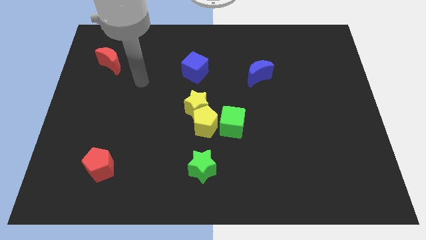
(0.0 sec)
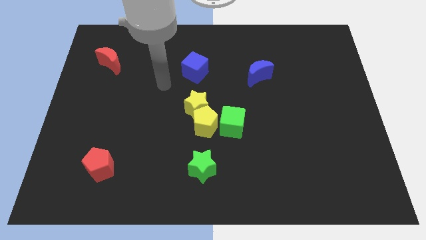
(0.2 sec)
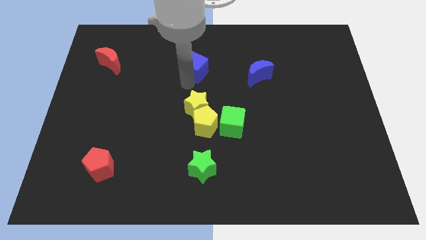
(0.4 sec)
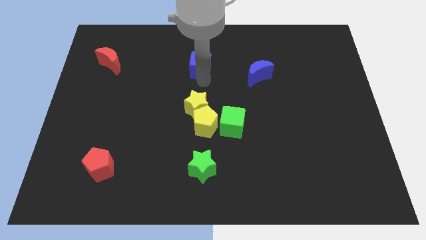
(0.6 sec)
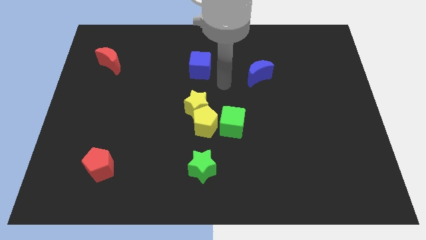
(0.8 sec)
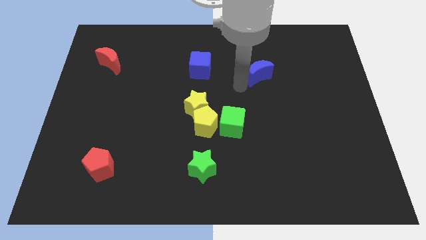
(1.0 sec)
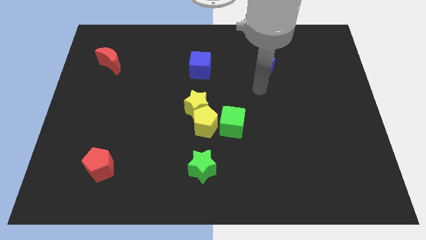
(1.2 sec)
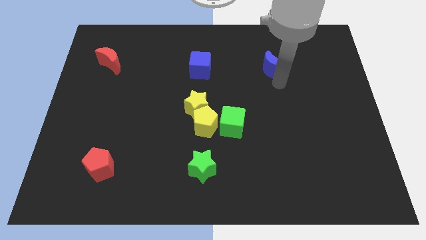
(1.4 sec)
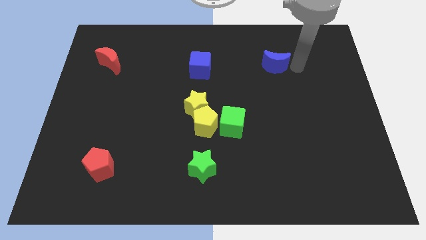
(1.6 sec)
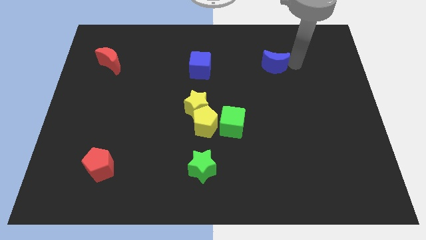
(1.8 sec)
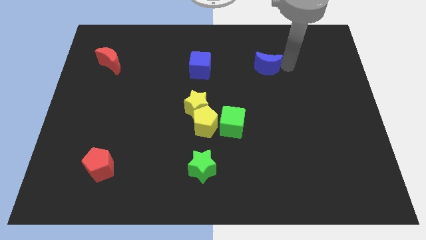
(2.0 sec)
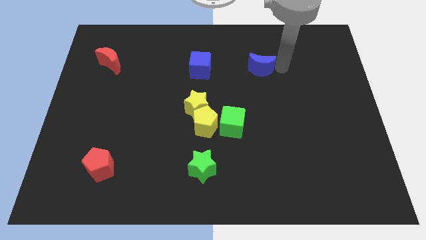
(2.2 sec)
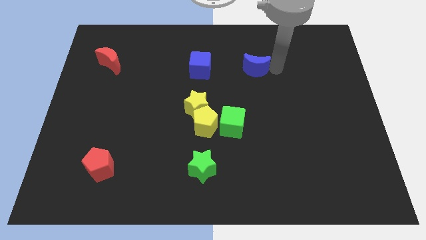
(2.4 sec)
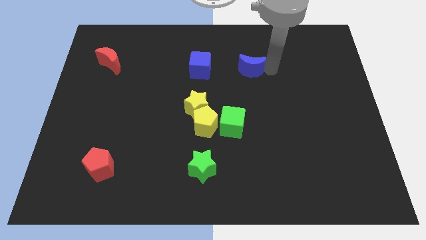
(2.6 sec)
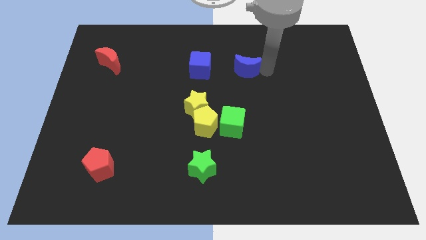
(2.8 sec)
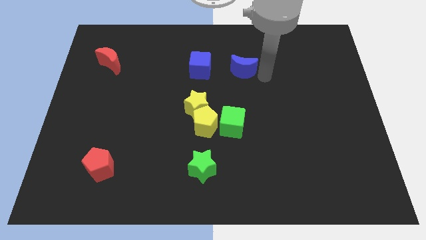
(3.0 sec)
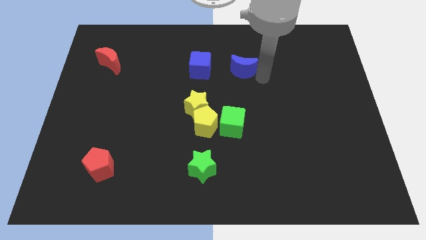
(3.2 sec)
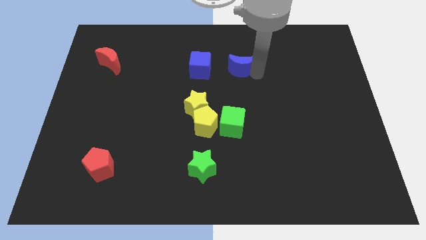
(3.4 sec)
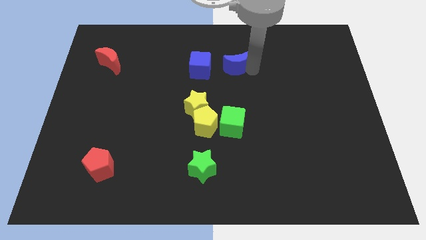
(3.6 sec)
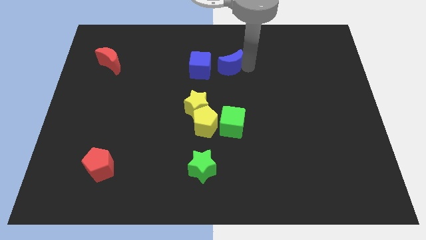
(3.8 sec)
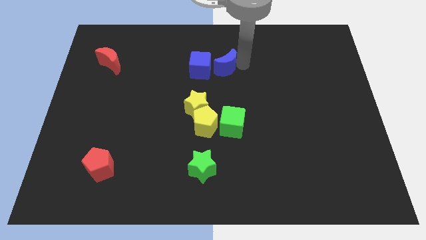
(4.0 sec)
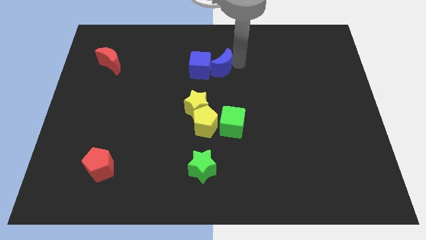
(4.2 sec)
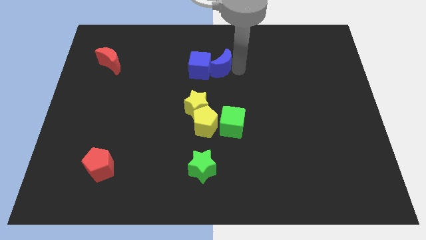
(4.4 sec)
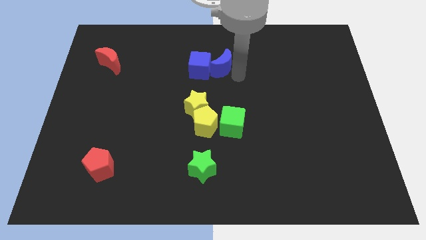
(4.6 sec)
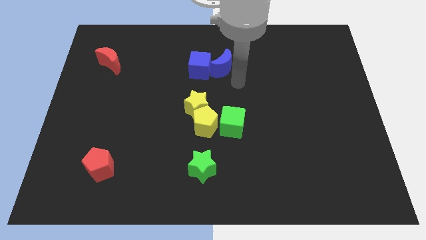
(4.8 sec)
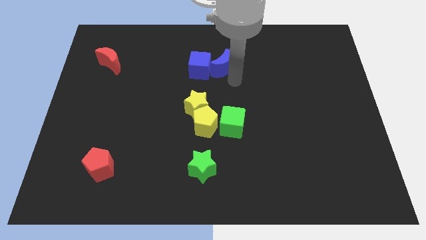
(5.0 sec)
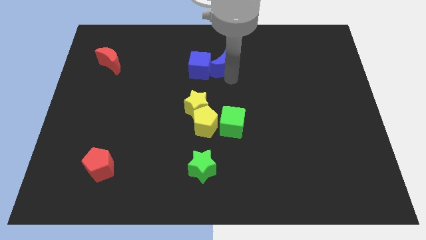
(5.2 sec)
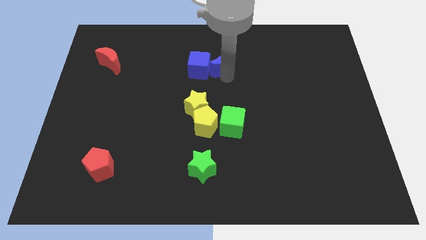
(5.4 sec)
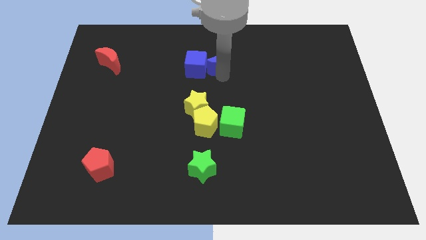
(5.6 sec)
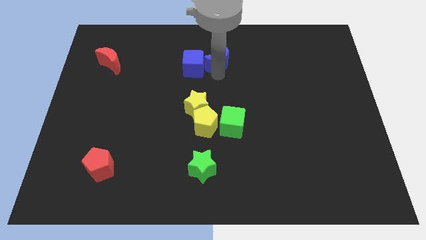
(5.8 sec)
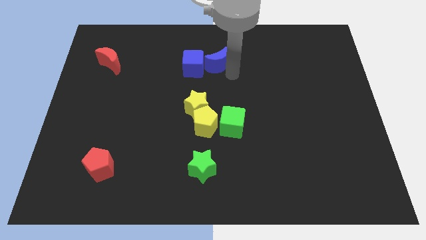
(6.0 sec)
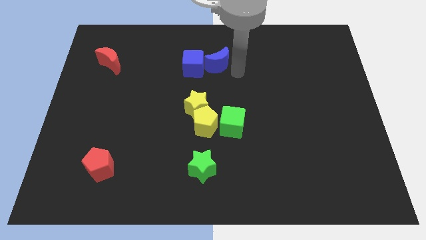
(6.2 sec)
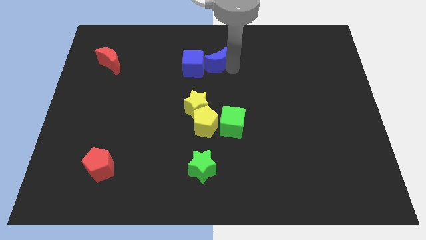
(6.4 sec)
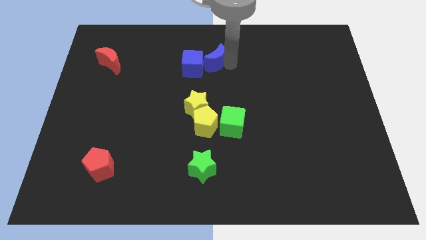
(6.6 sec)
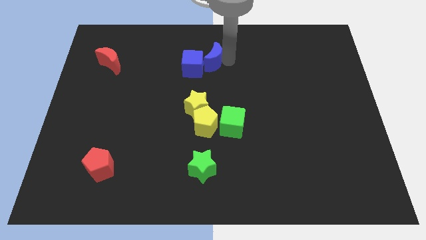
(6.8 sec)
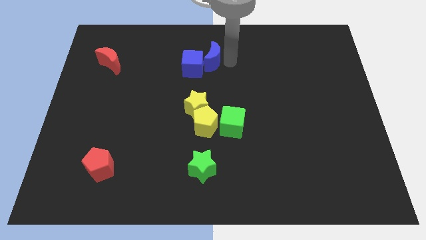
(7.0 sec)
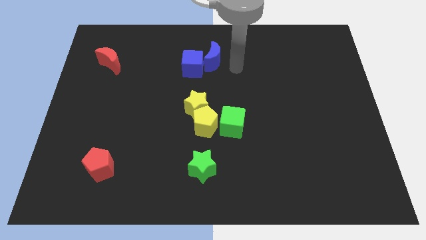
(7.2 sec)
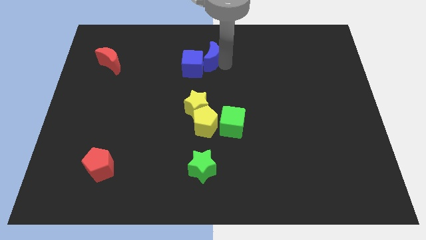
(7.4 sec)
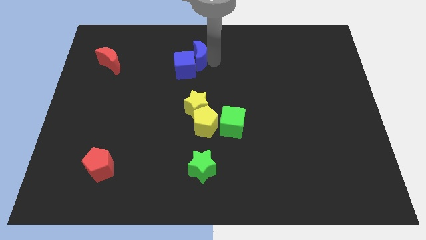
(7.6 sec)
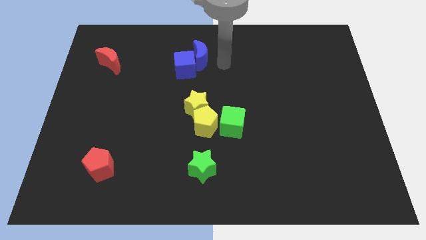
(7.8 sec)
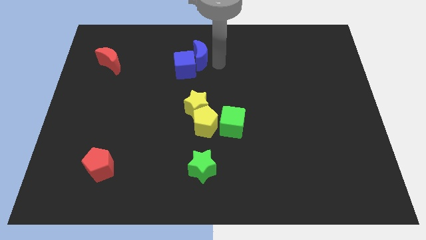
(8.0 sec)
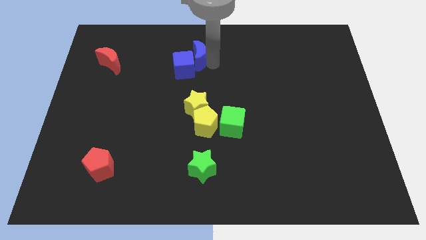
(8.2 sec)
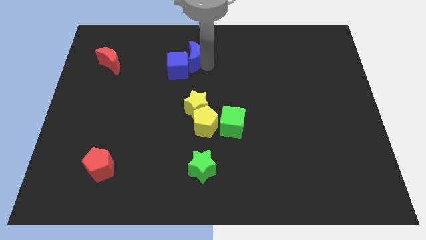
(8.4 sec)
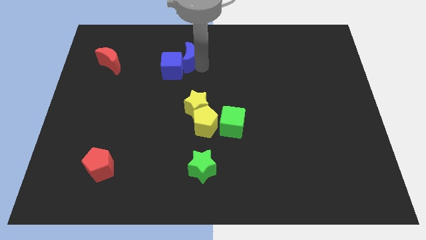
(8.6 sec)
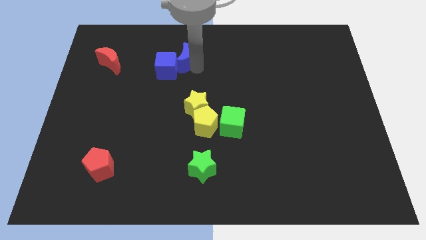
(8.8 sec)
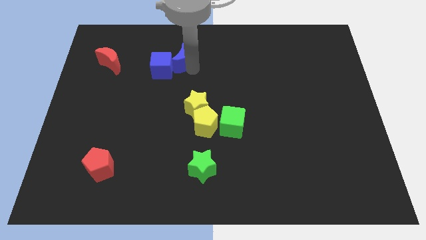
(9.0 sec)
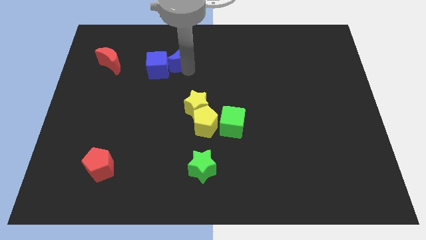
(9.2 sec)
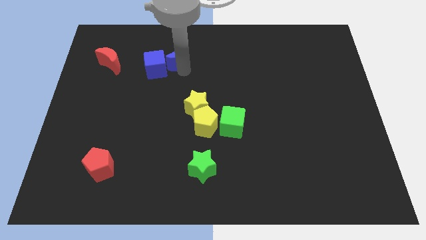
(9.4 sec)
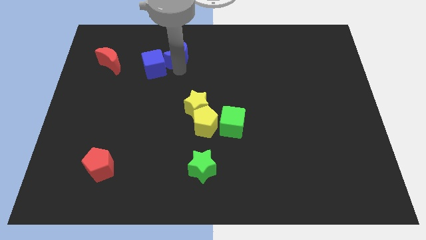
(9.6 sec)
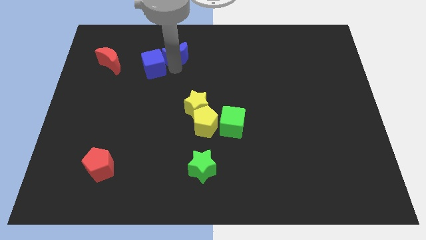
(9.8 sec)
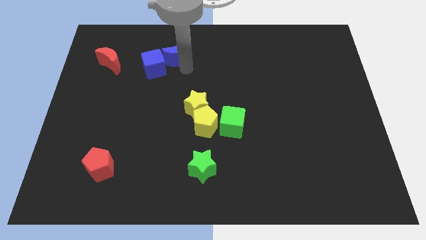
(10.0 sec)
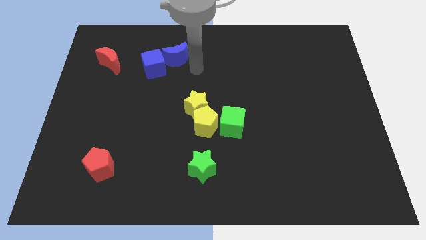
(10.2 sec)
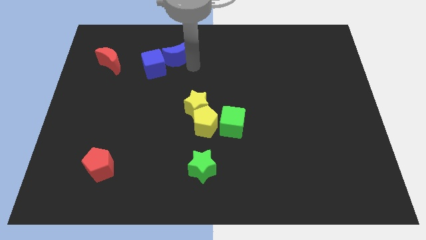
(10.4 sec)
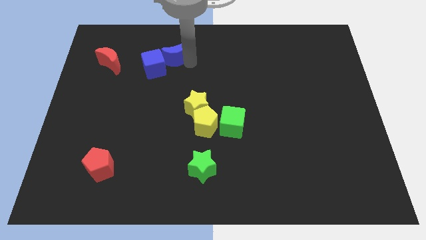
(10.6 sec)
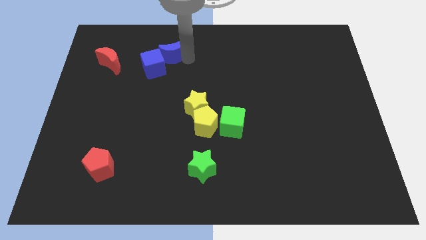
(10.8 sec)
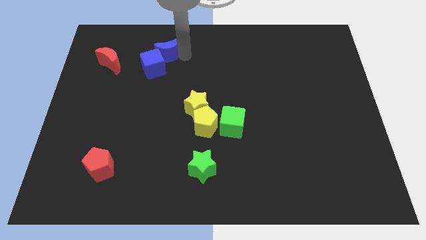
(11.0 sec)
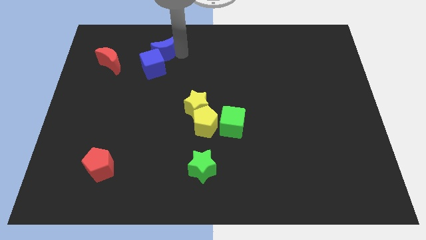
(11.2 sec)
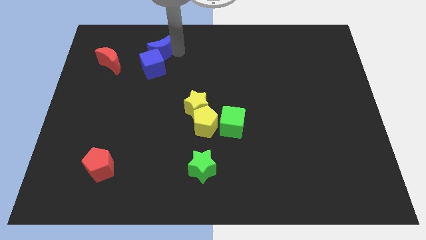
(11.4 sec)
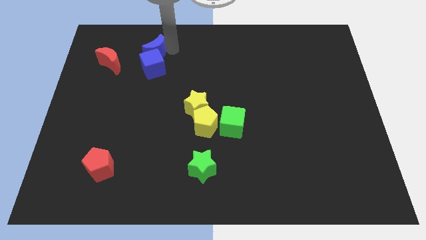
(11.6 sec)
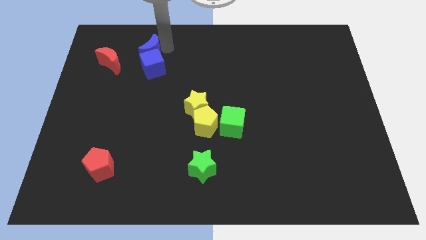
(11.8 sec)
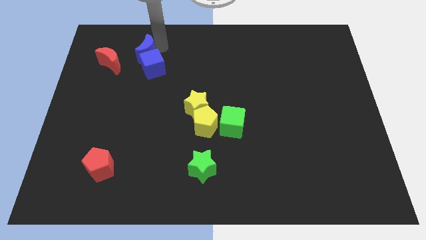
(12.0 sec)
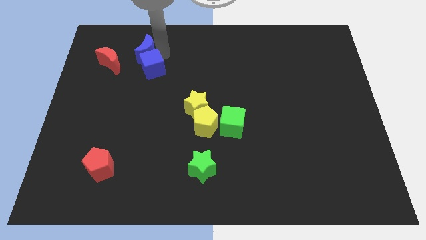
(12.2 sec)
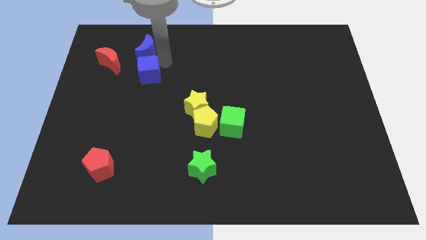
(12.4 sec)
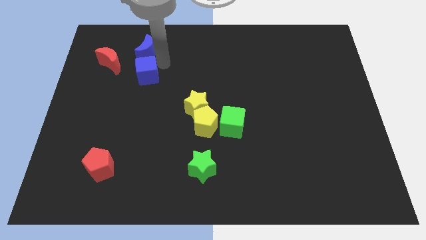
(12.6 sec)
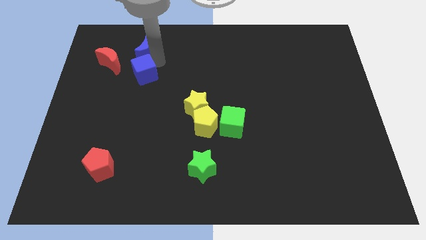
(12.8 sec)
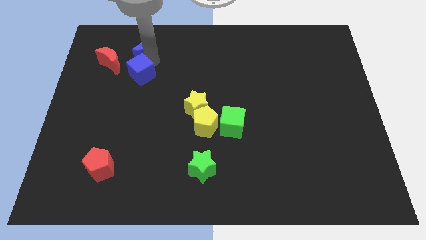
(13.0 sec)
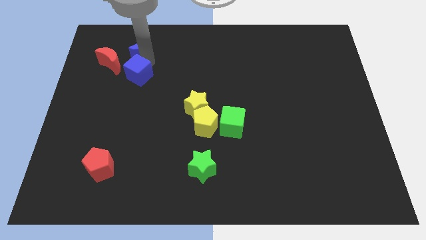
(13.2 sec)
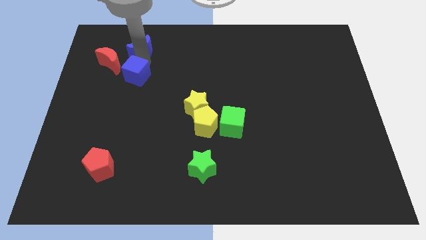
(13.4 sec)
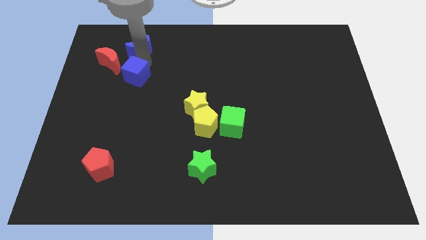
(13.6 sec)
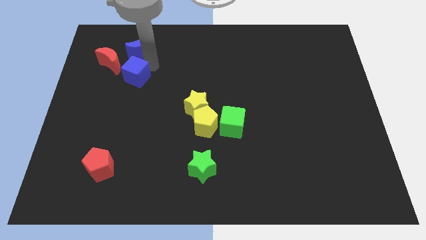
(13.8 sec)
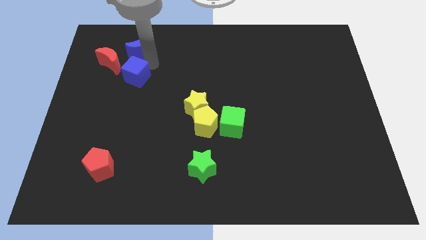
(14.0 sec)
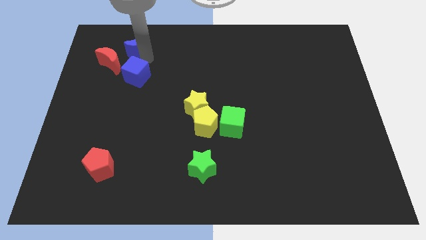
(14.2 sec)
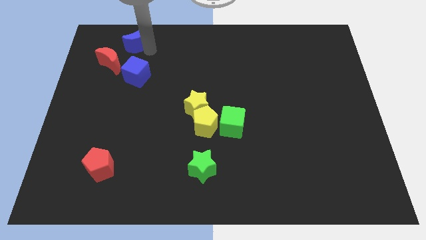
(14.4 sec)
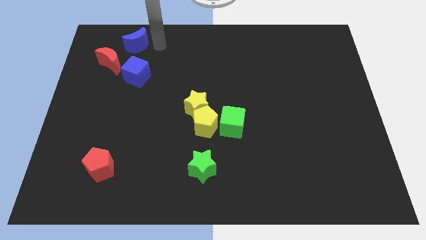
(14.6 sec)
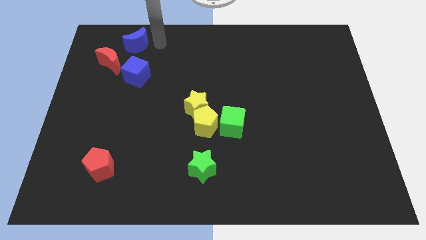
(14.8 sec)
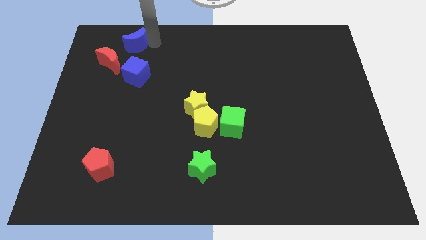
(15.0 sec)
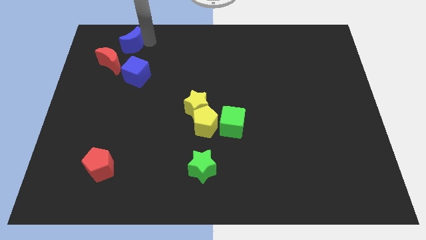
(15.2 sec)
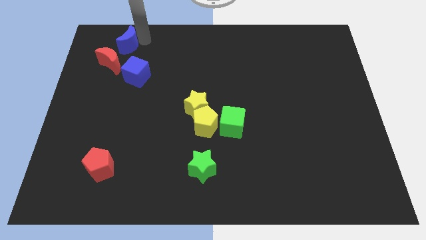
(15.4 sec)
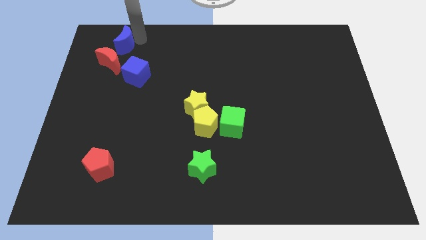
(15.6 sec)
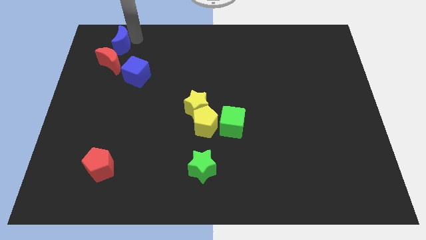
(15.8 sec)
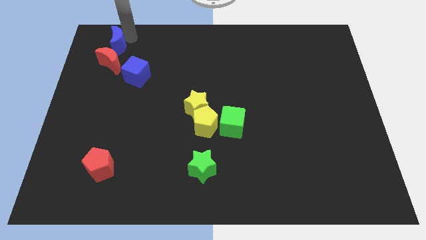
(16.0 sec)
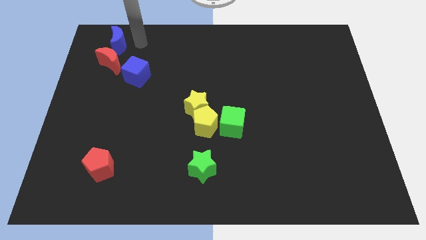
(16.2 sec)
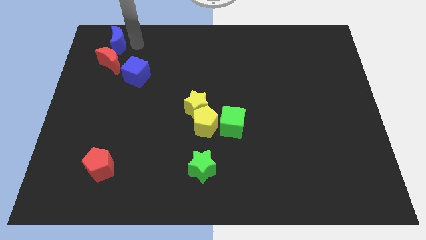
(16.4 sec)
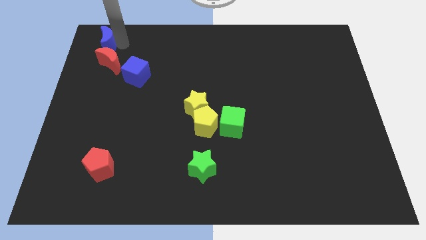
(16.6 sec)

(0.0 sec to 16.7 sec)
slide the blue moon to the top left
